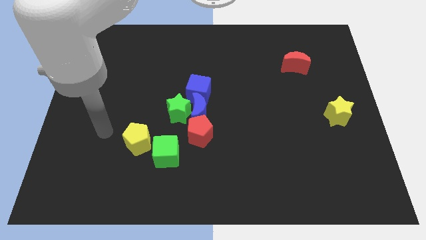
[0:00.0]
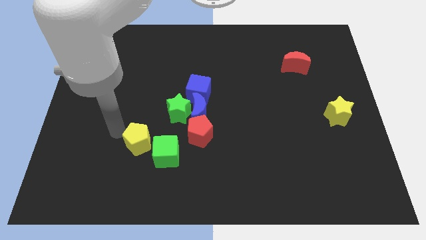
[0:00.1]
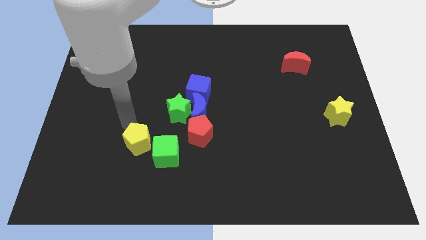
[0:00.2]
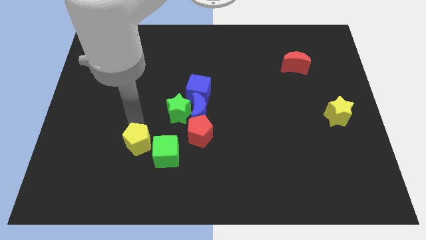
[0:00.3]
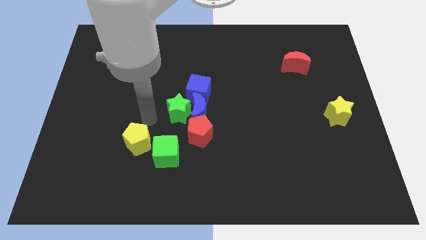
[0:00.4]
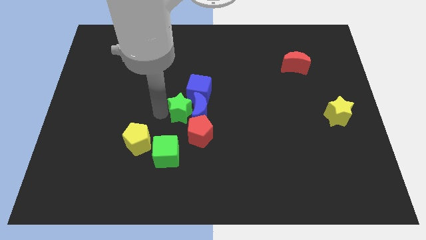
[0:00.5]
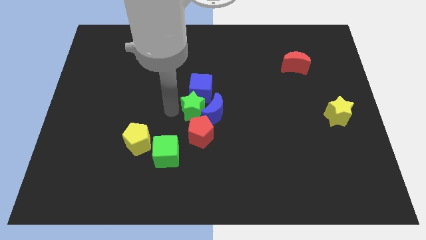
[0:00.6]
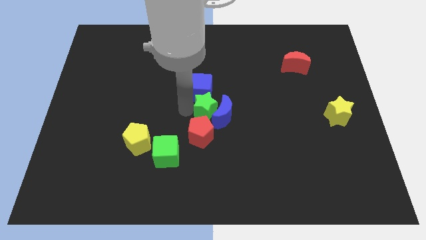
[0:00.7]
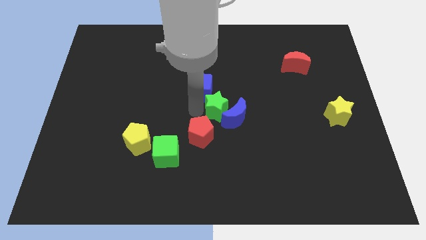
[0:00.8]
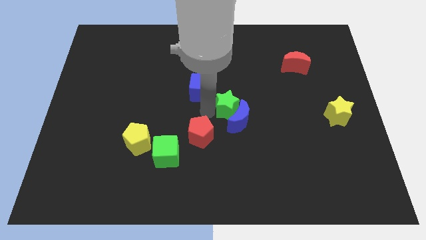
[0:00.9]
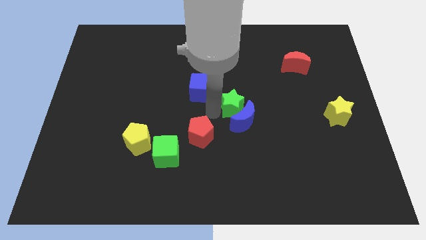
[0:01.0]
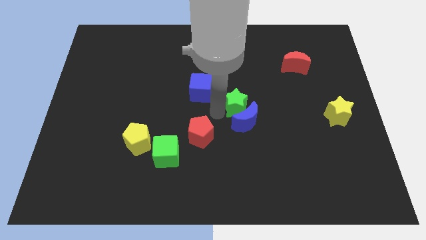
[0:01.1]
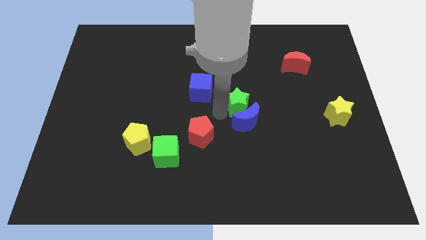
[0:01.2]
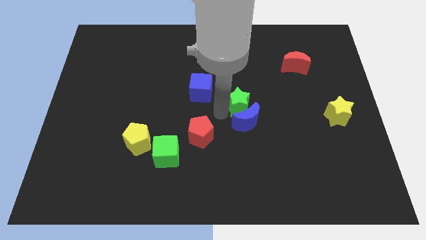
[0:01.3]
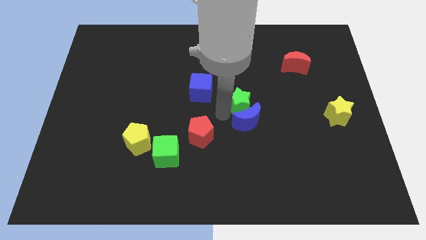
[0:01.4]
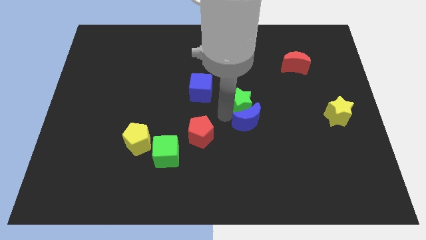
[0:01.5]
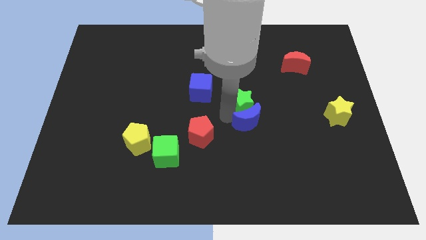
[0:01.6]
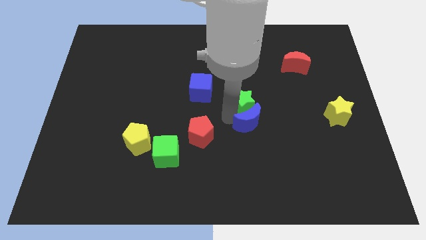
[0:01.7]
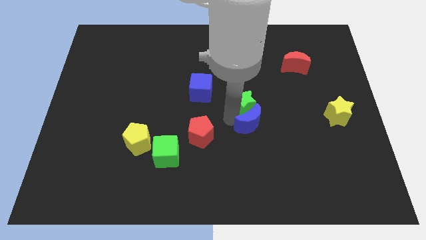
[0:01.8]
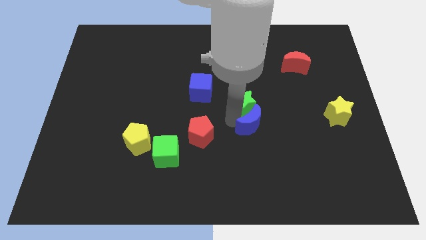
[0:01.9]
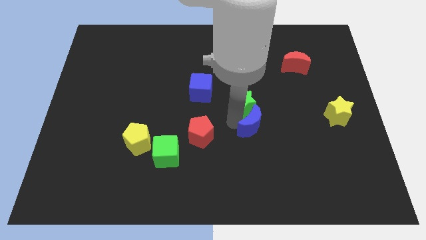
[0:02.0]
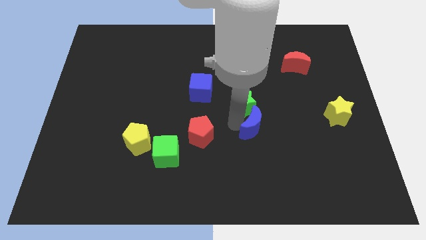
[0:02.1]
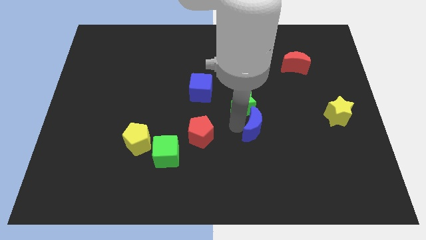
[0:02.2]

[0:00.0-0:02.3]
move the blue moon away from the clump

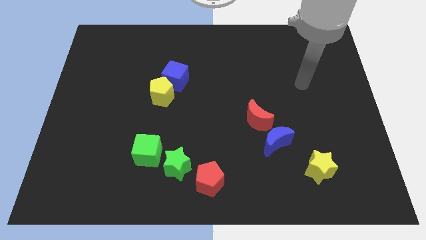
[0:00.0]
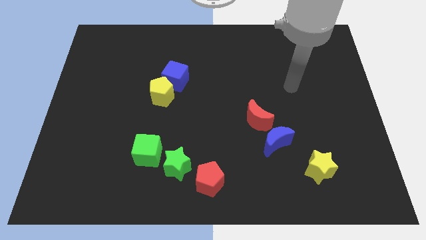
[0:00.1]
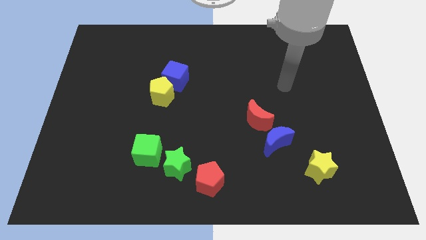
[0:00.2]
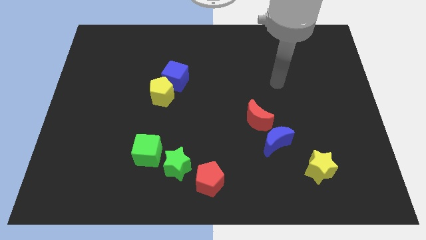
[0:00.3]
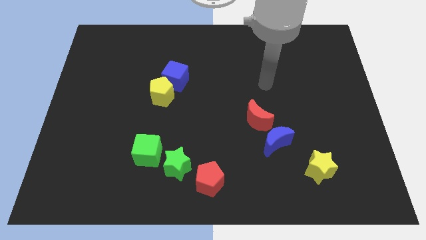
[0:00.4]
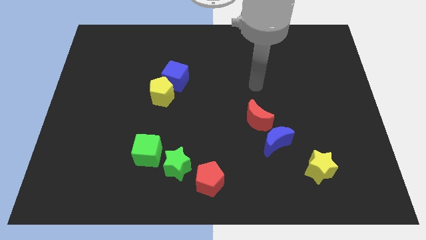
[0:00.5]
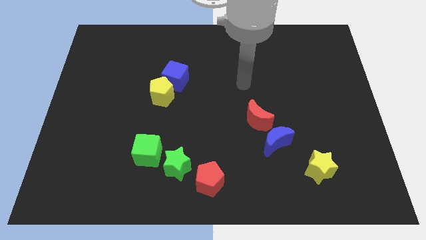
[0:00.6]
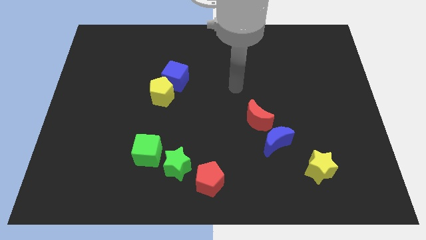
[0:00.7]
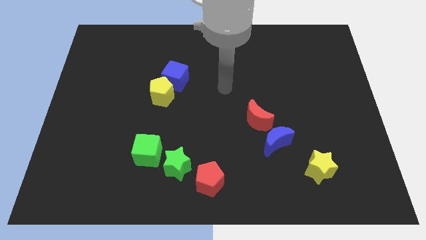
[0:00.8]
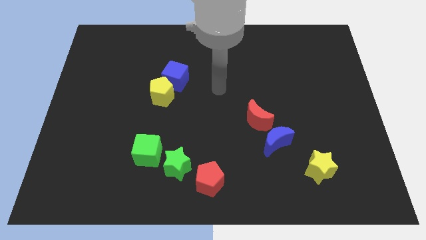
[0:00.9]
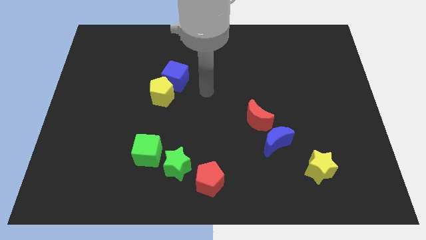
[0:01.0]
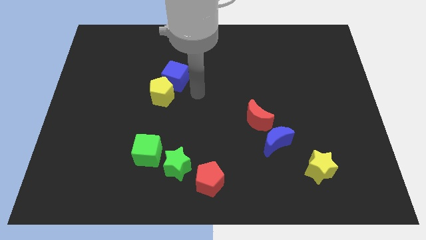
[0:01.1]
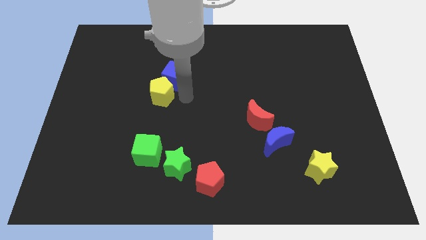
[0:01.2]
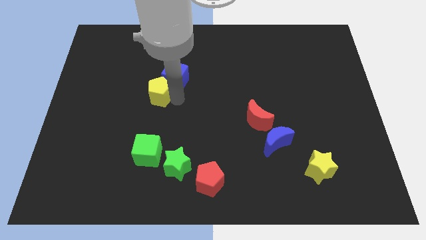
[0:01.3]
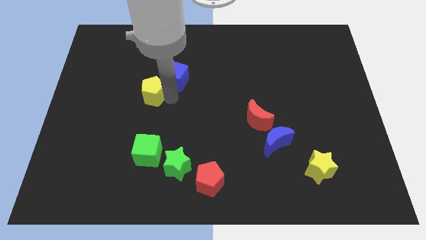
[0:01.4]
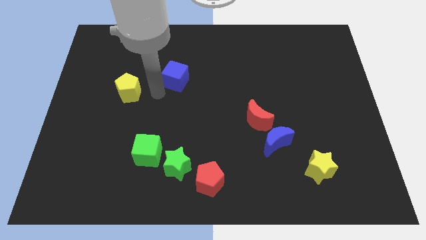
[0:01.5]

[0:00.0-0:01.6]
move the blue cube away from the yellow pentagon

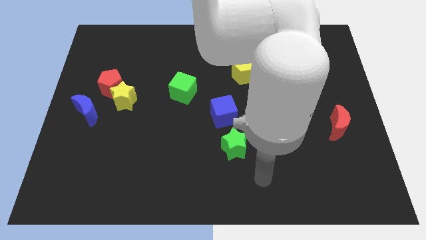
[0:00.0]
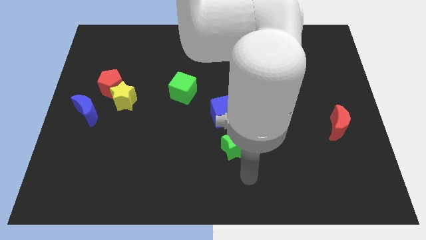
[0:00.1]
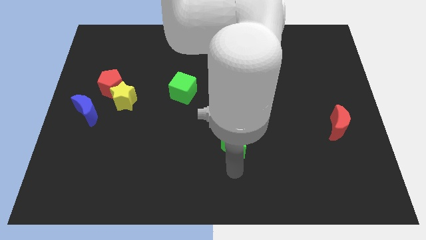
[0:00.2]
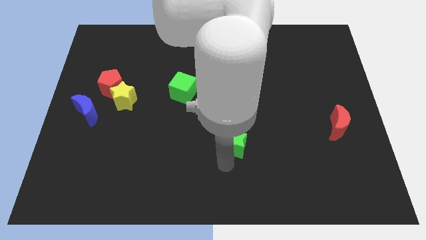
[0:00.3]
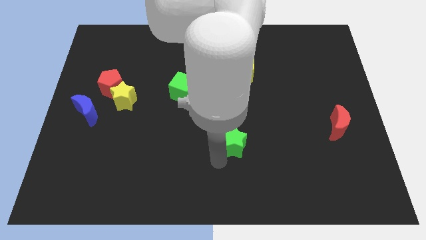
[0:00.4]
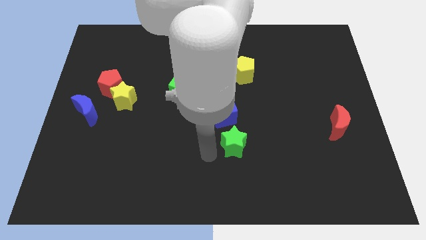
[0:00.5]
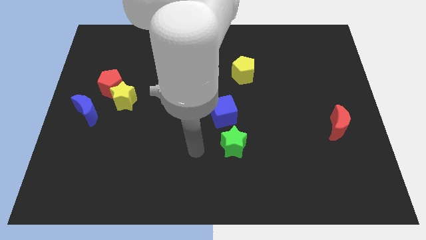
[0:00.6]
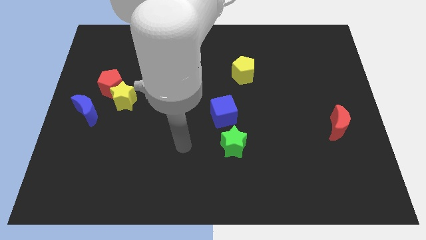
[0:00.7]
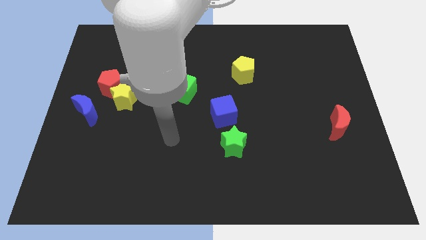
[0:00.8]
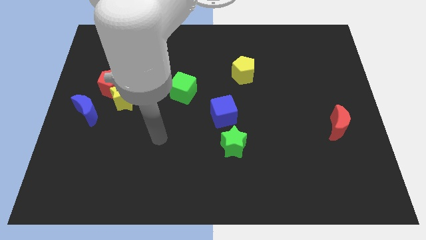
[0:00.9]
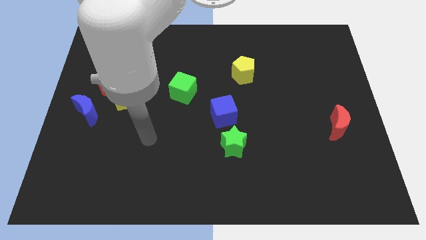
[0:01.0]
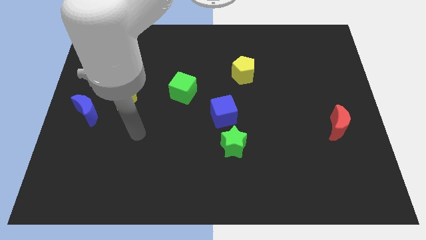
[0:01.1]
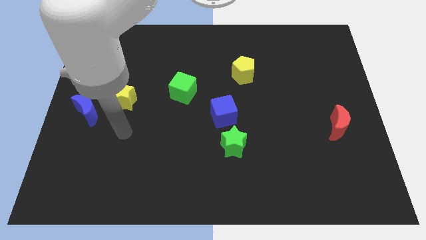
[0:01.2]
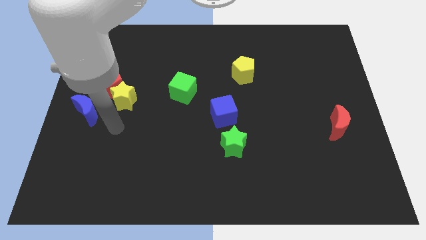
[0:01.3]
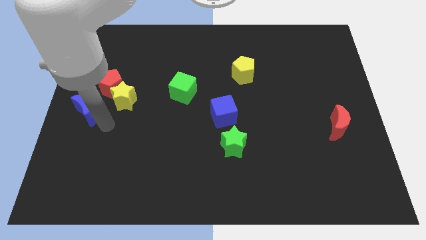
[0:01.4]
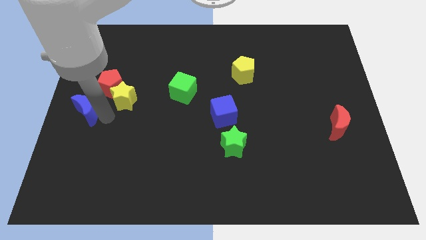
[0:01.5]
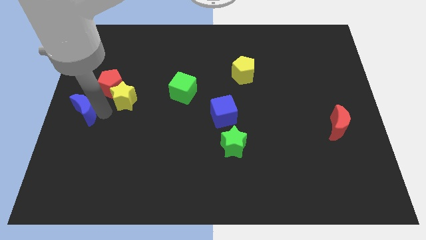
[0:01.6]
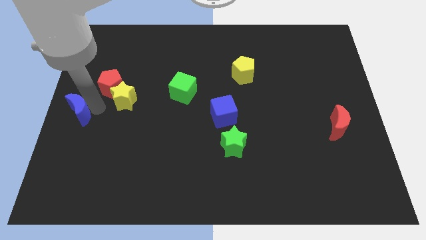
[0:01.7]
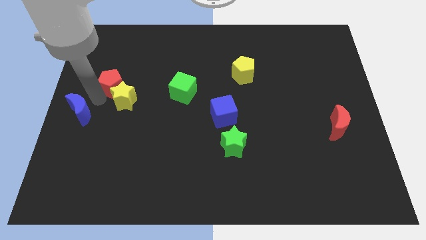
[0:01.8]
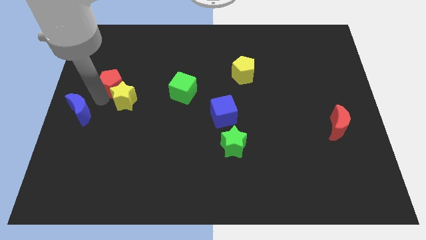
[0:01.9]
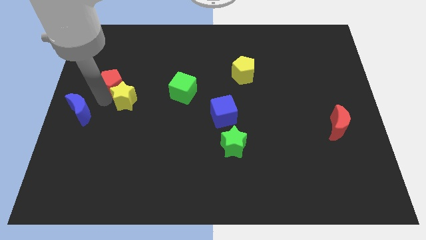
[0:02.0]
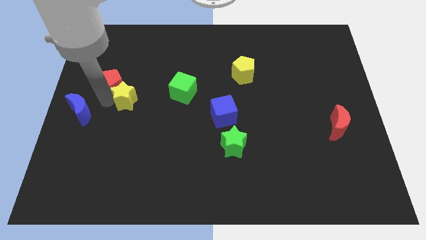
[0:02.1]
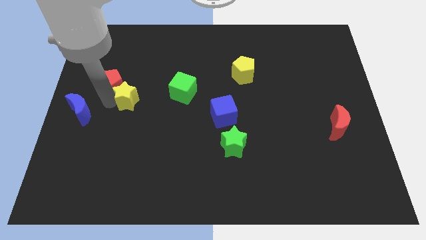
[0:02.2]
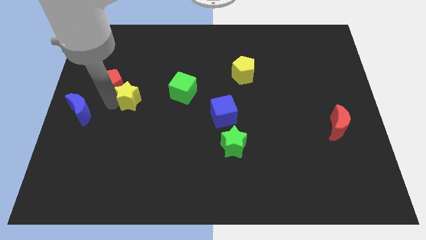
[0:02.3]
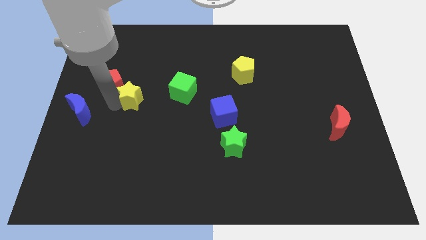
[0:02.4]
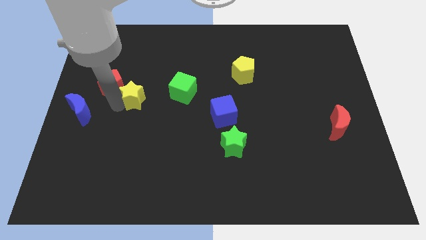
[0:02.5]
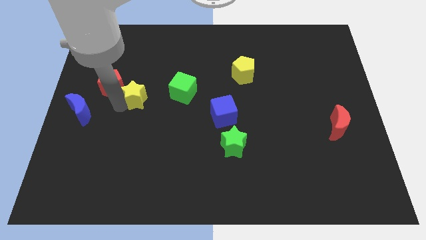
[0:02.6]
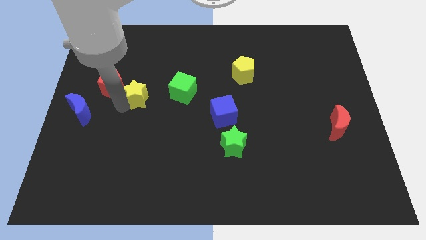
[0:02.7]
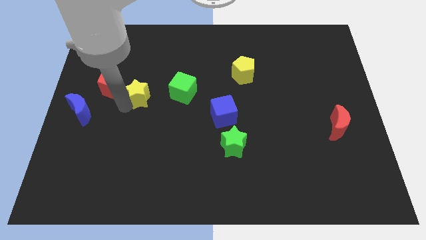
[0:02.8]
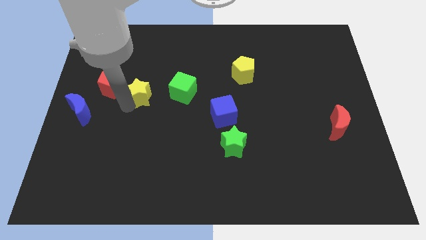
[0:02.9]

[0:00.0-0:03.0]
separate the yellow star from the red pentagon and blue moon

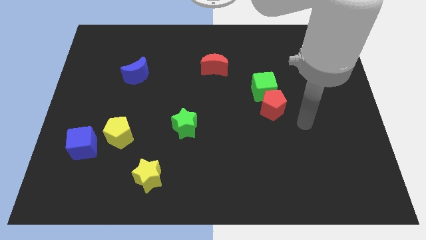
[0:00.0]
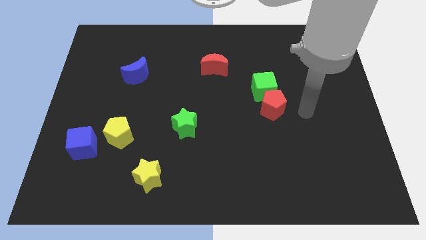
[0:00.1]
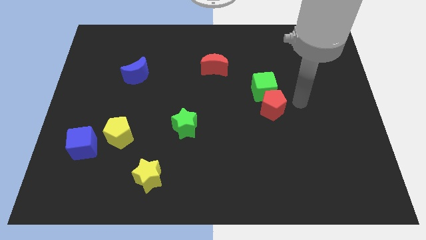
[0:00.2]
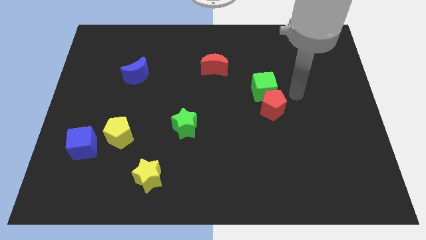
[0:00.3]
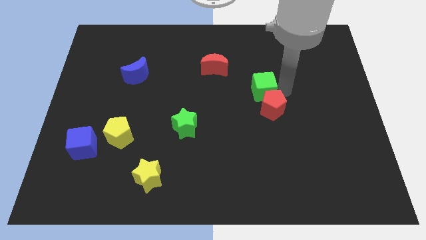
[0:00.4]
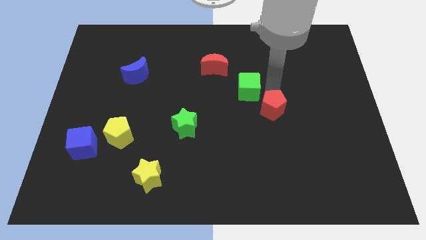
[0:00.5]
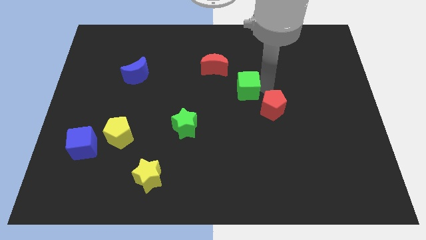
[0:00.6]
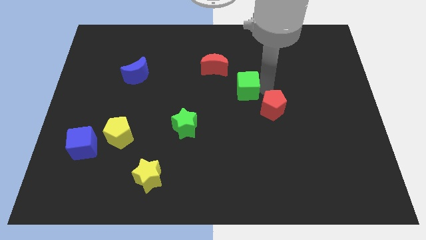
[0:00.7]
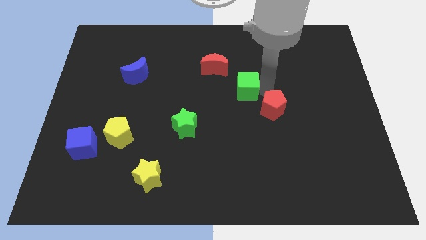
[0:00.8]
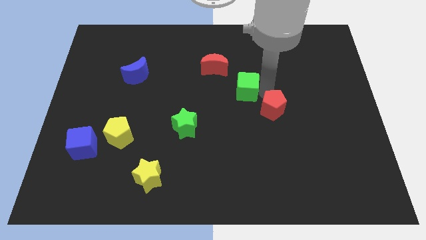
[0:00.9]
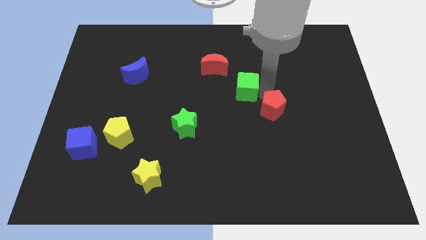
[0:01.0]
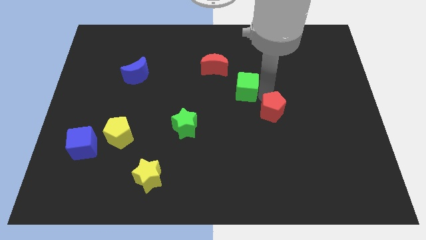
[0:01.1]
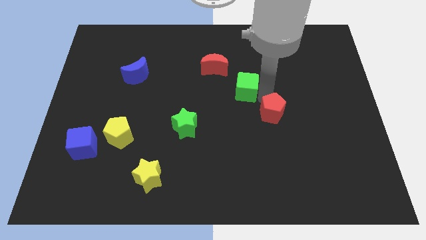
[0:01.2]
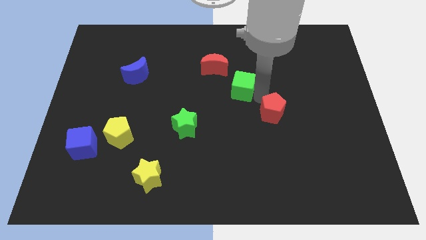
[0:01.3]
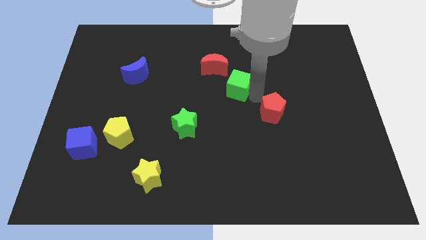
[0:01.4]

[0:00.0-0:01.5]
separate the red pentagon from the green cube

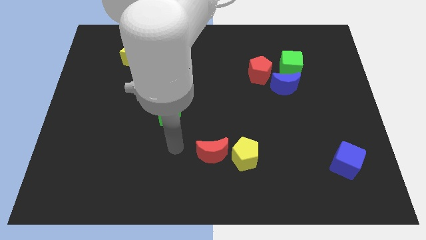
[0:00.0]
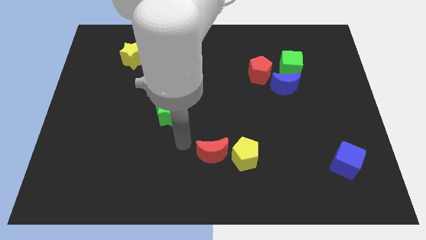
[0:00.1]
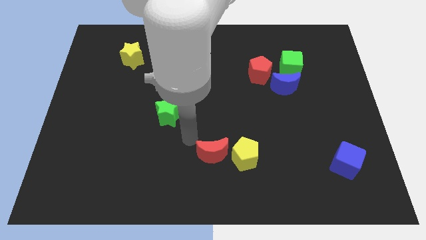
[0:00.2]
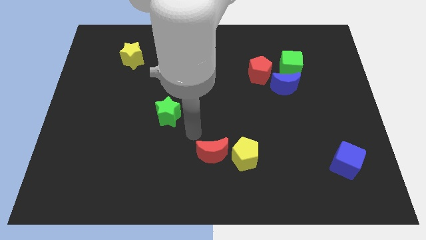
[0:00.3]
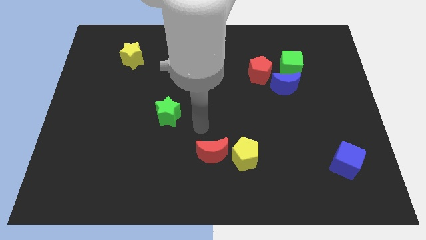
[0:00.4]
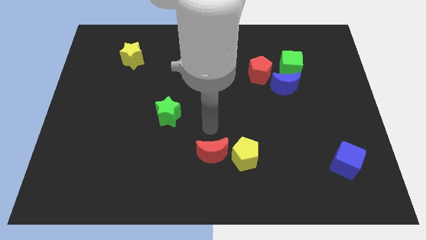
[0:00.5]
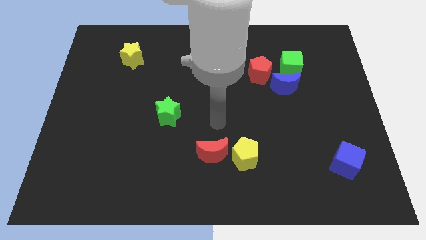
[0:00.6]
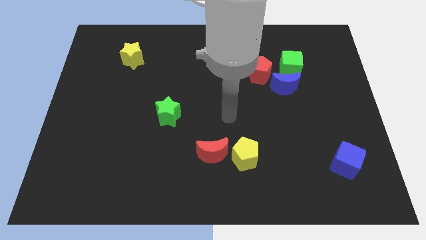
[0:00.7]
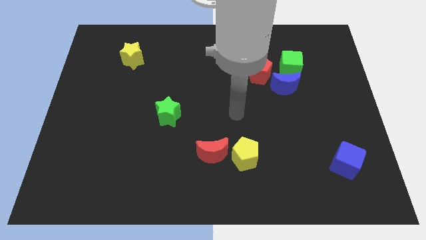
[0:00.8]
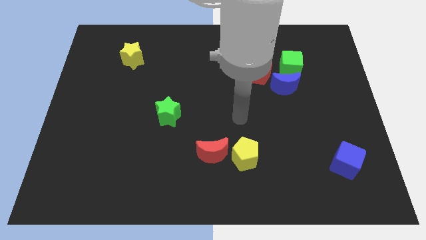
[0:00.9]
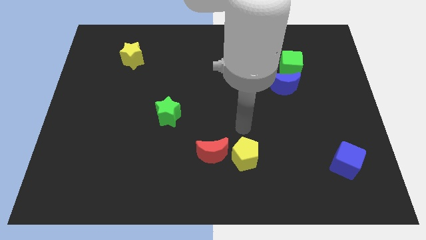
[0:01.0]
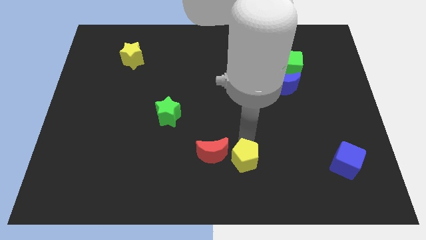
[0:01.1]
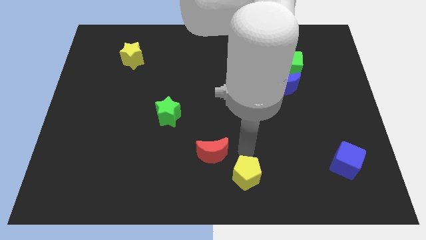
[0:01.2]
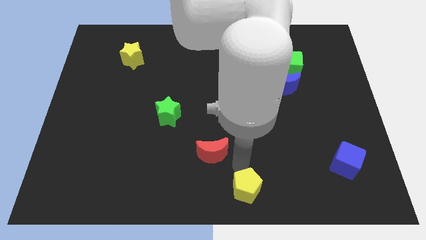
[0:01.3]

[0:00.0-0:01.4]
separate the red moon from the yellow pentagon
